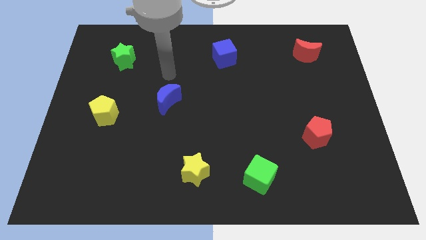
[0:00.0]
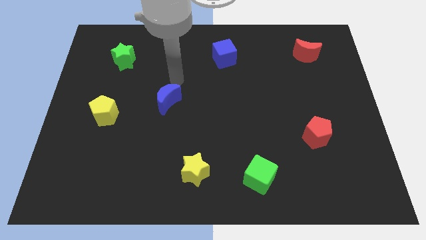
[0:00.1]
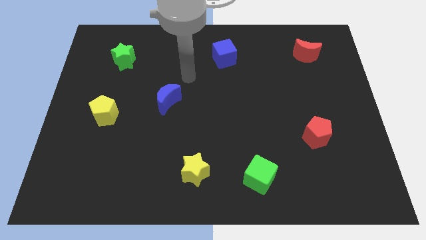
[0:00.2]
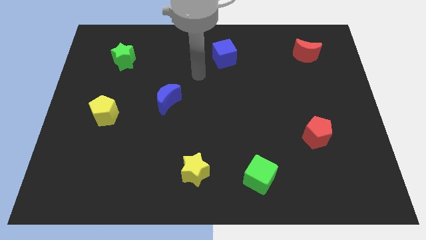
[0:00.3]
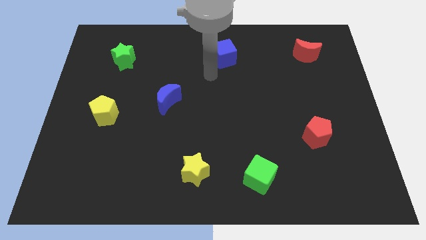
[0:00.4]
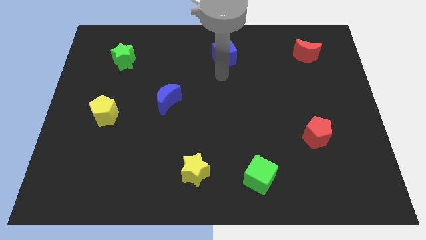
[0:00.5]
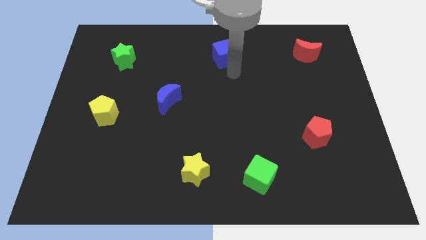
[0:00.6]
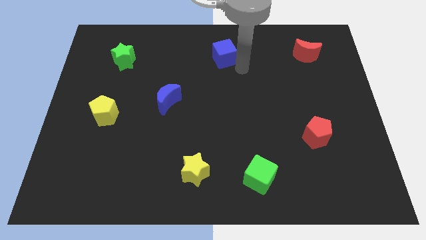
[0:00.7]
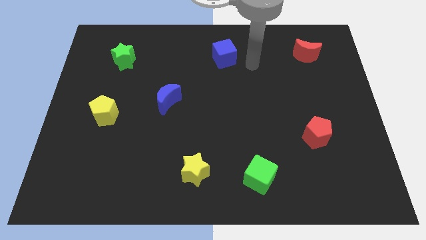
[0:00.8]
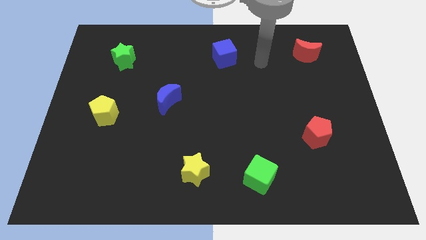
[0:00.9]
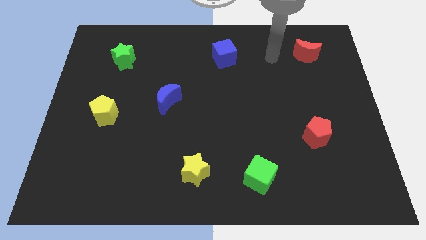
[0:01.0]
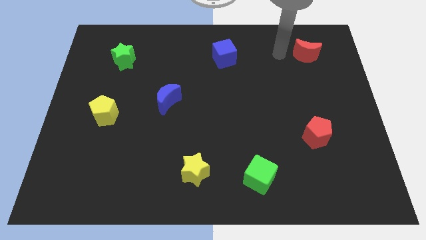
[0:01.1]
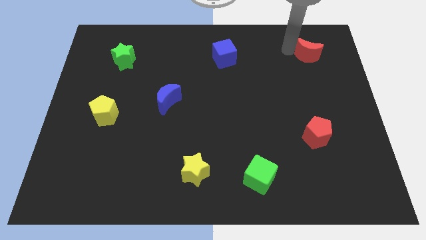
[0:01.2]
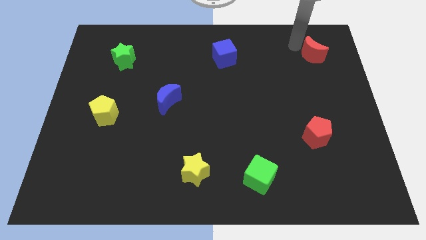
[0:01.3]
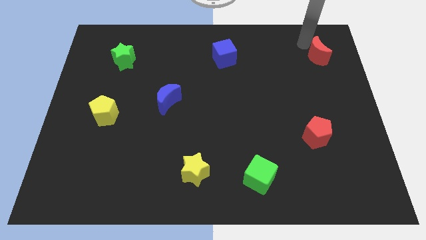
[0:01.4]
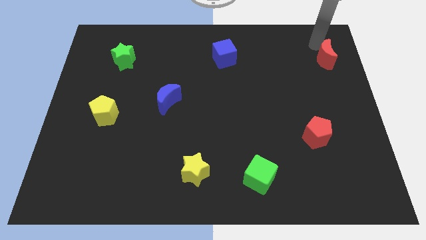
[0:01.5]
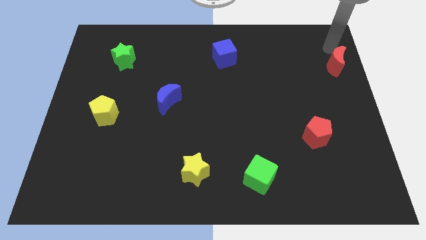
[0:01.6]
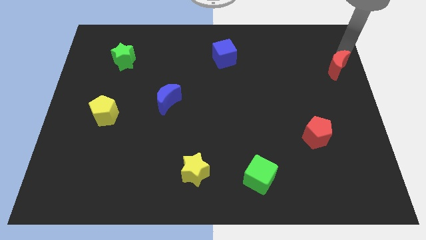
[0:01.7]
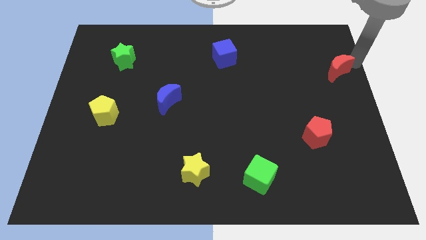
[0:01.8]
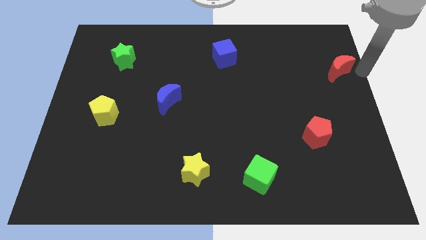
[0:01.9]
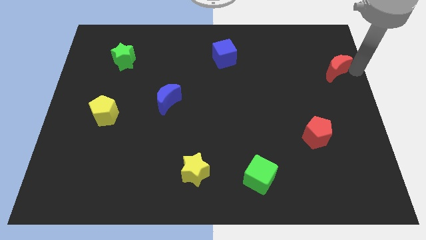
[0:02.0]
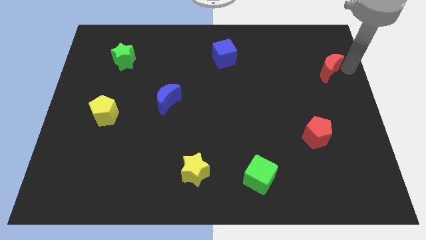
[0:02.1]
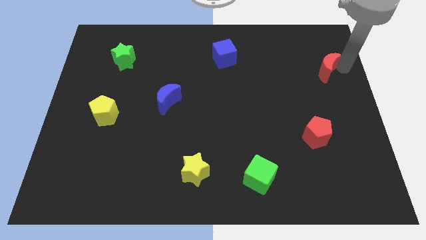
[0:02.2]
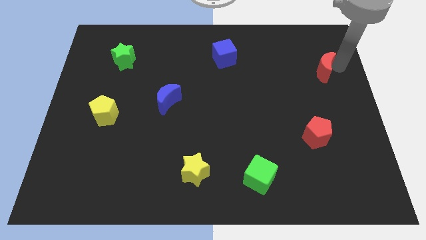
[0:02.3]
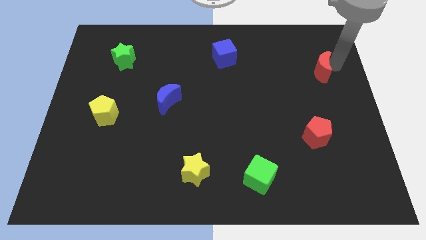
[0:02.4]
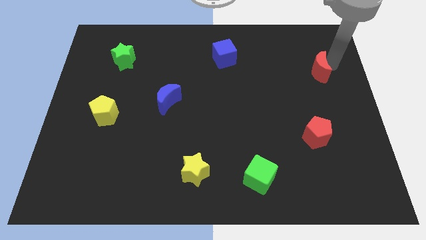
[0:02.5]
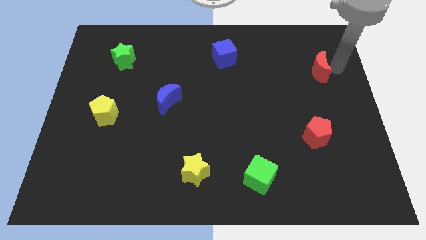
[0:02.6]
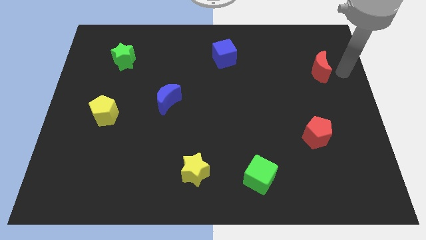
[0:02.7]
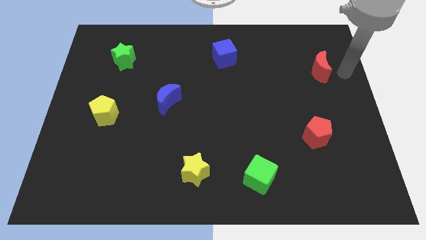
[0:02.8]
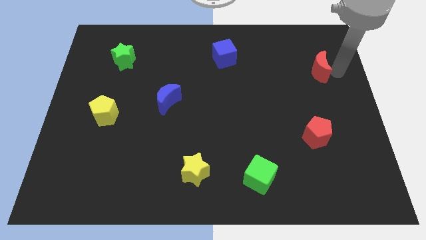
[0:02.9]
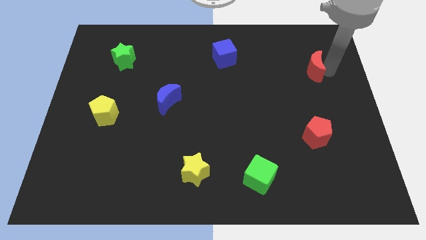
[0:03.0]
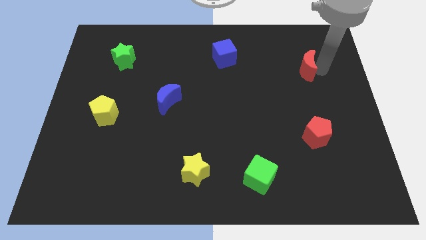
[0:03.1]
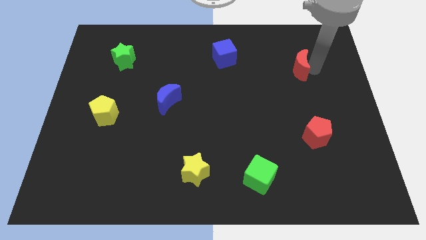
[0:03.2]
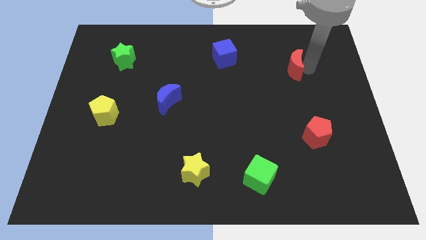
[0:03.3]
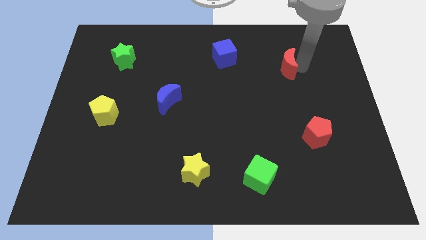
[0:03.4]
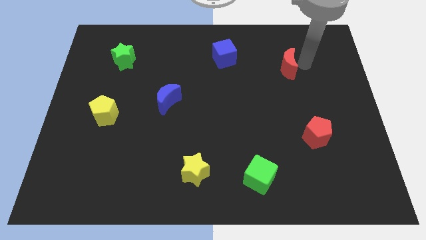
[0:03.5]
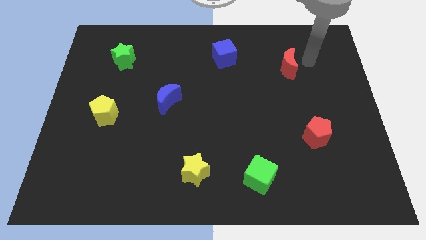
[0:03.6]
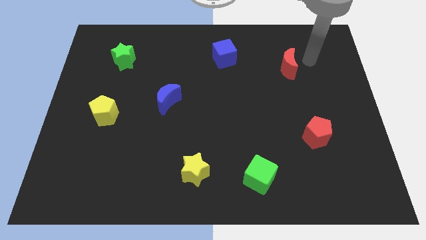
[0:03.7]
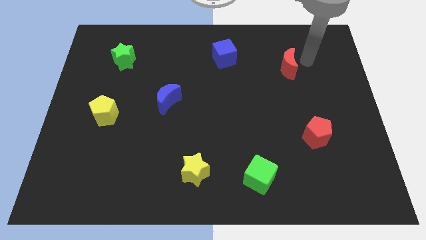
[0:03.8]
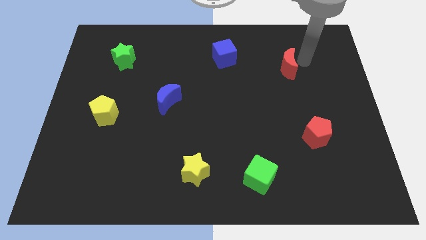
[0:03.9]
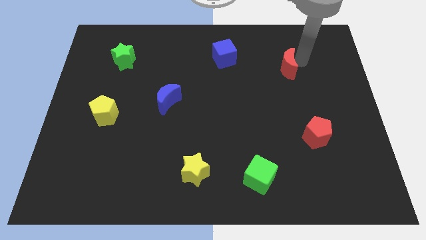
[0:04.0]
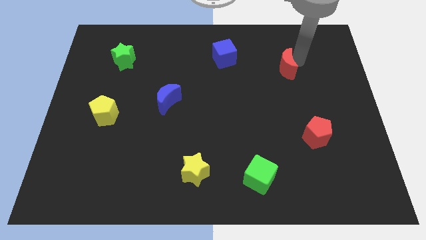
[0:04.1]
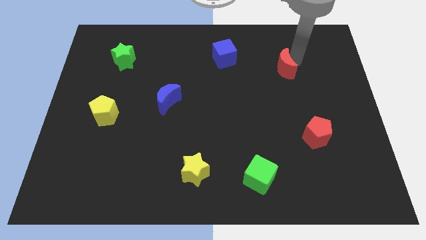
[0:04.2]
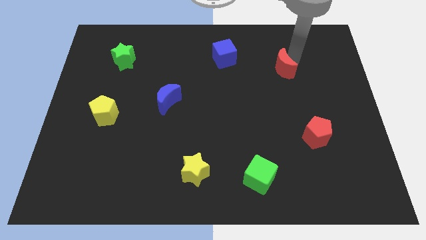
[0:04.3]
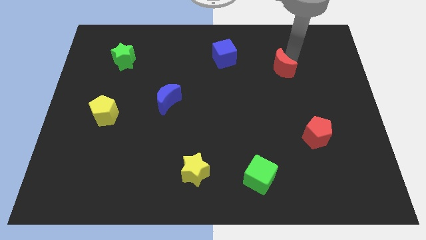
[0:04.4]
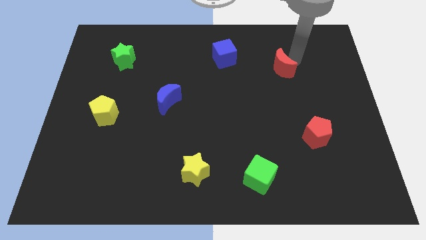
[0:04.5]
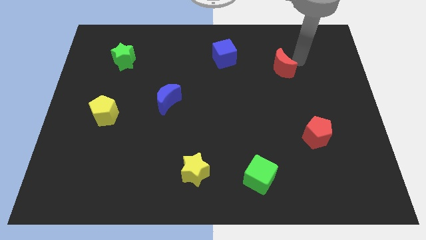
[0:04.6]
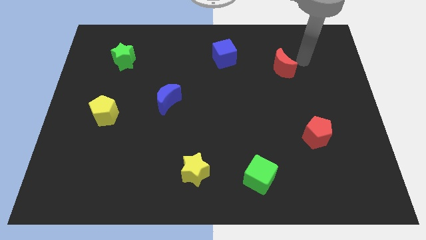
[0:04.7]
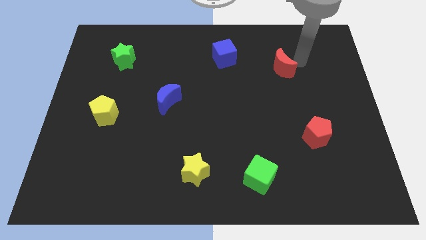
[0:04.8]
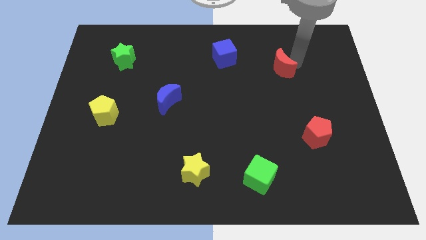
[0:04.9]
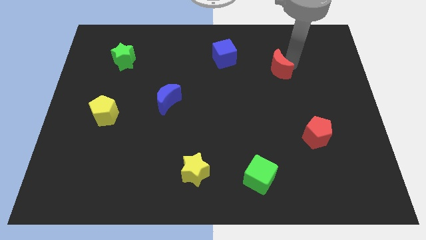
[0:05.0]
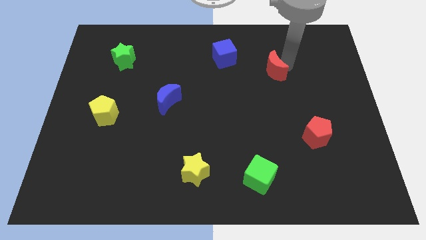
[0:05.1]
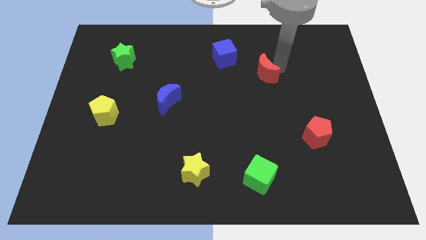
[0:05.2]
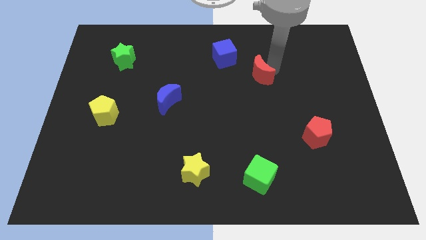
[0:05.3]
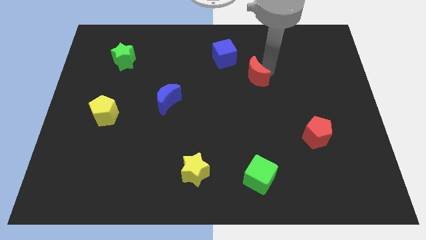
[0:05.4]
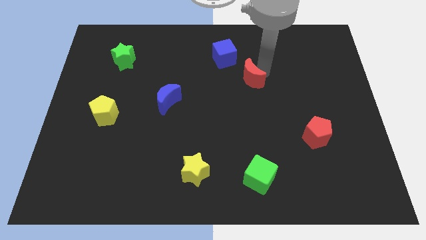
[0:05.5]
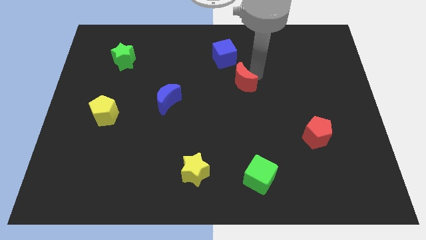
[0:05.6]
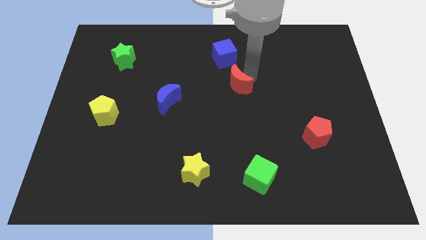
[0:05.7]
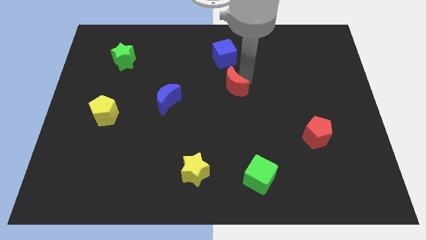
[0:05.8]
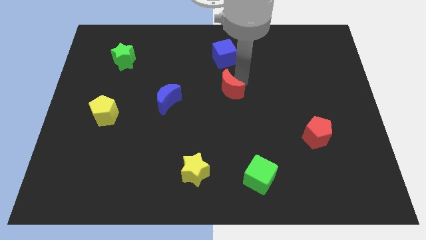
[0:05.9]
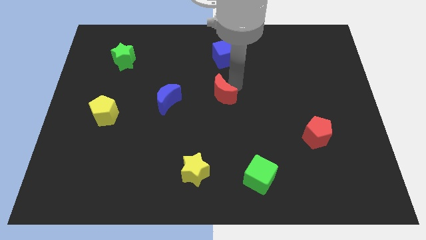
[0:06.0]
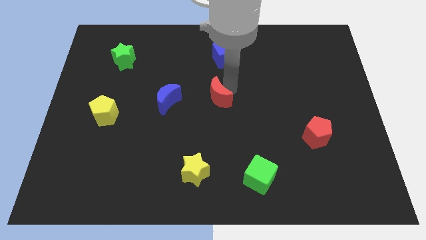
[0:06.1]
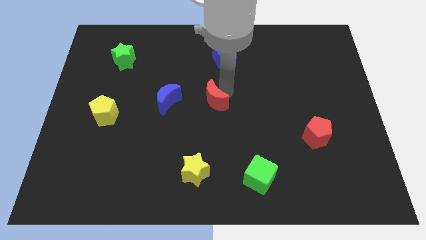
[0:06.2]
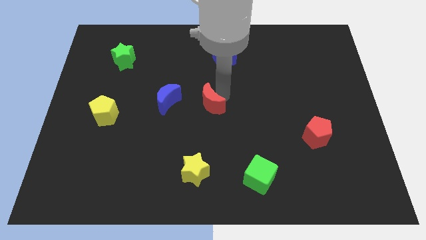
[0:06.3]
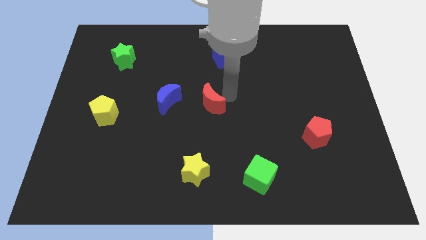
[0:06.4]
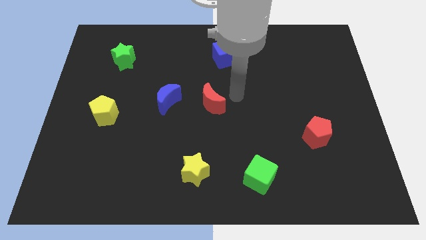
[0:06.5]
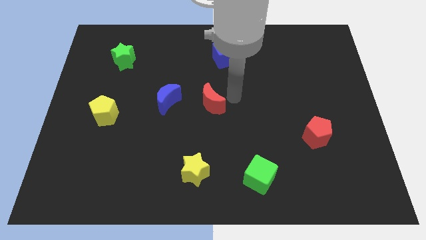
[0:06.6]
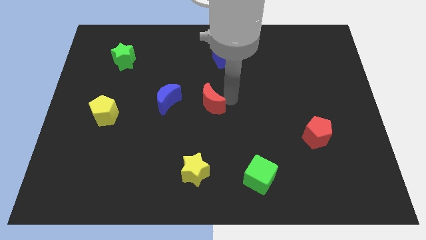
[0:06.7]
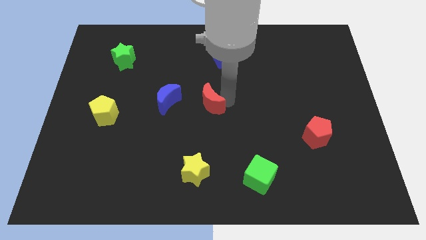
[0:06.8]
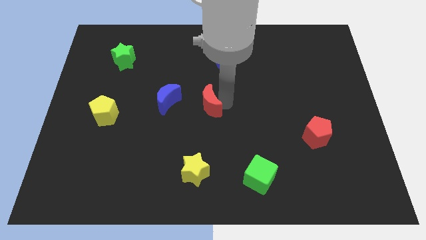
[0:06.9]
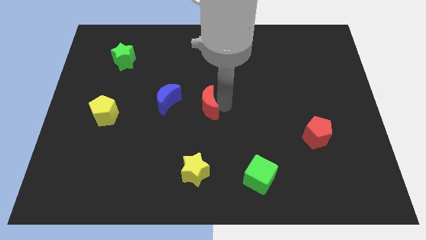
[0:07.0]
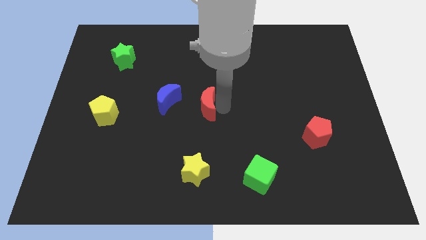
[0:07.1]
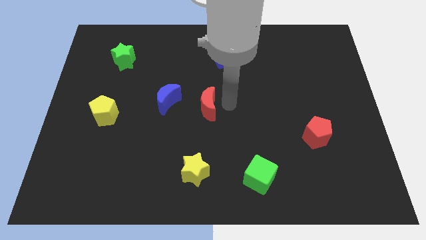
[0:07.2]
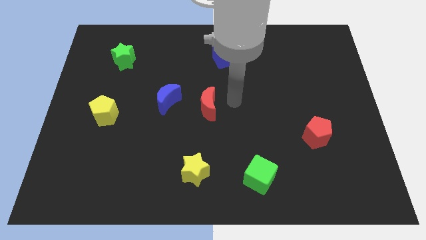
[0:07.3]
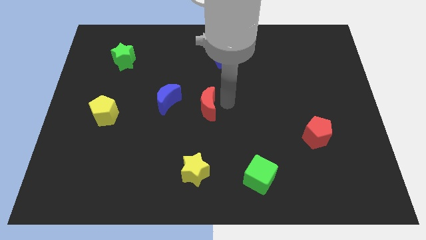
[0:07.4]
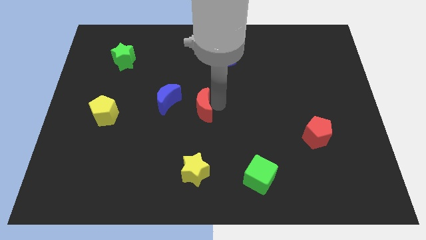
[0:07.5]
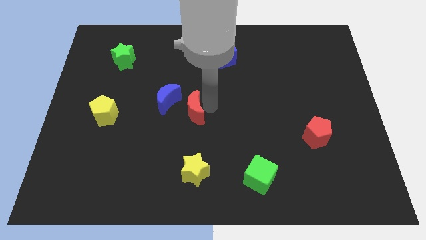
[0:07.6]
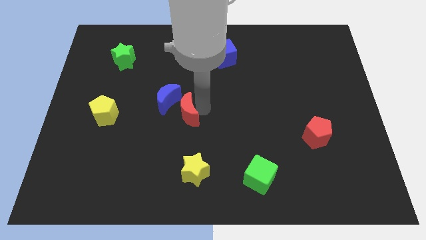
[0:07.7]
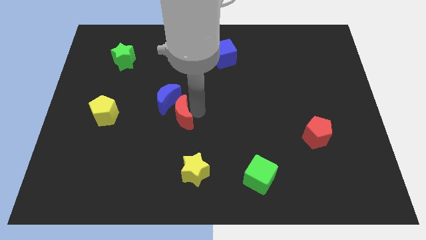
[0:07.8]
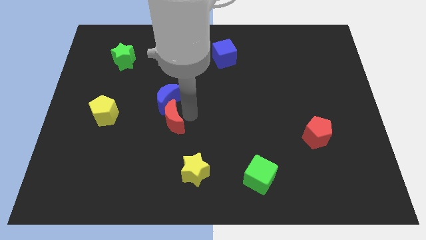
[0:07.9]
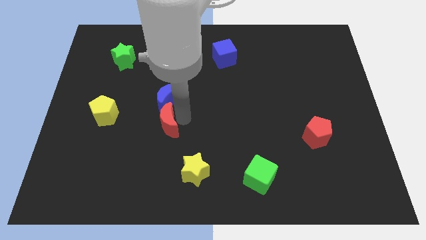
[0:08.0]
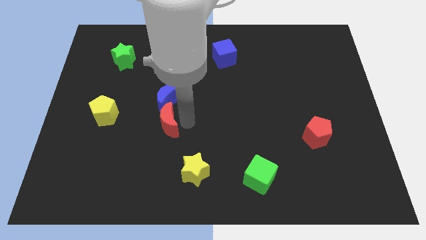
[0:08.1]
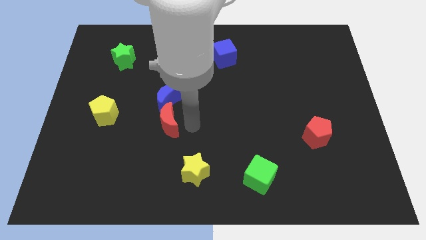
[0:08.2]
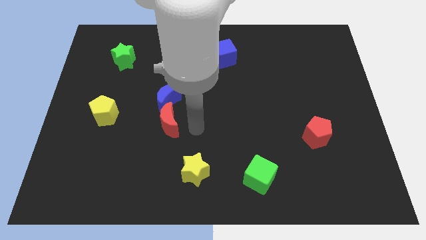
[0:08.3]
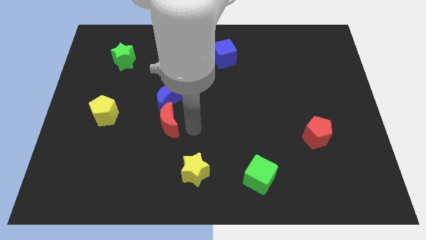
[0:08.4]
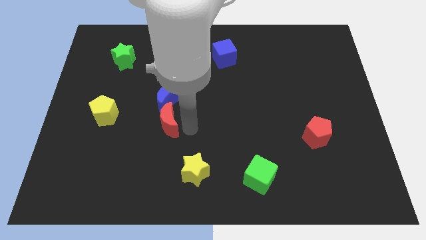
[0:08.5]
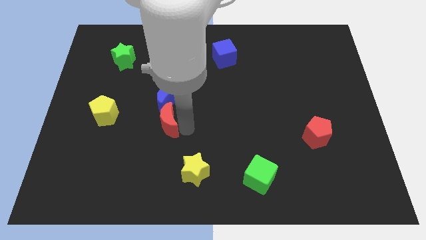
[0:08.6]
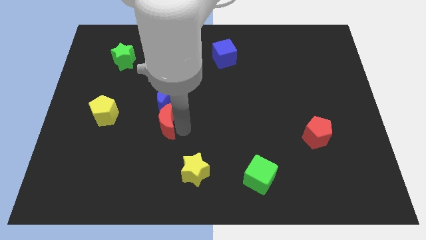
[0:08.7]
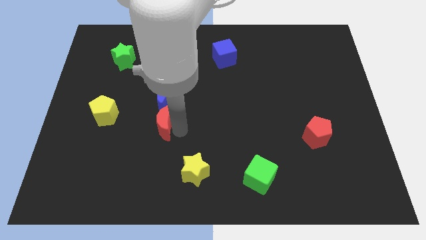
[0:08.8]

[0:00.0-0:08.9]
put the red moon diagonally down and to the left of the blue moon
